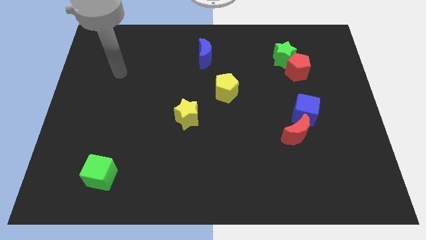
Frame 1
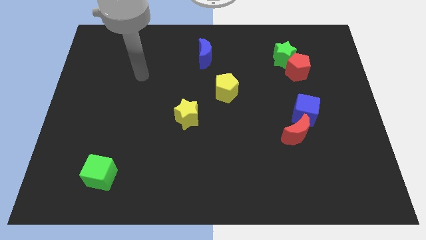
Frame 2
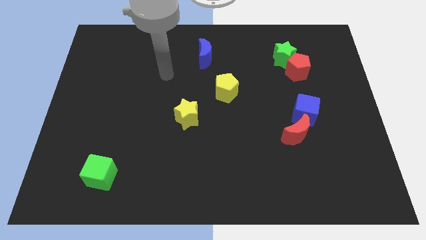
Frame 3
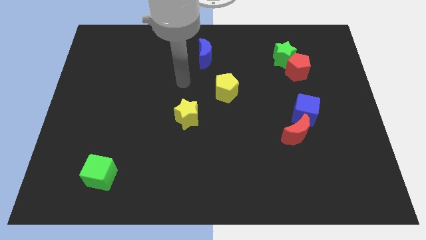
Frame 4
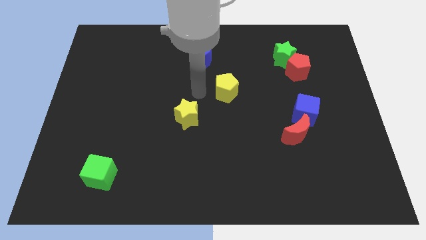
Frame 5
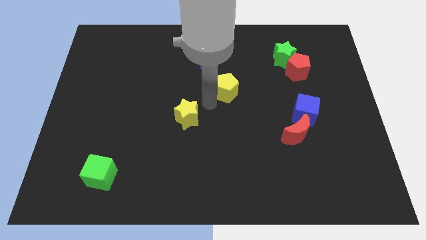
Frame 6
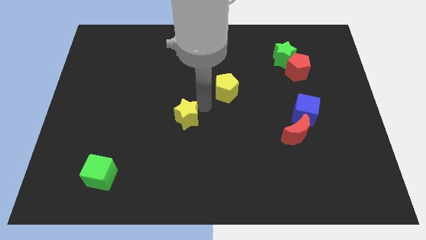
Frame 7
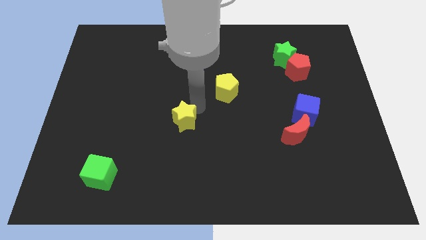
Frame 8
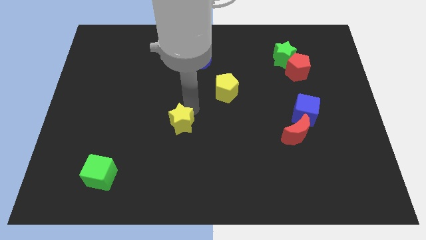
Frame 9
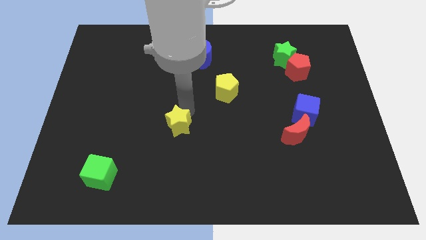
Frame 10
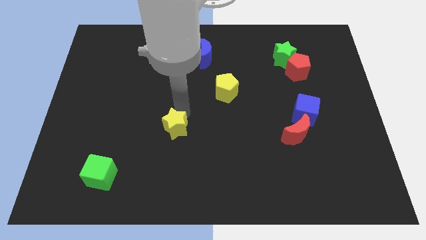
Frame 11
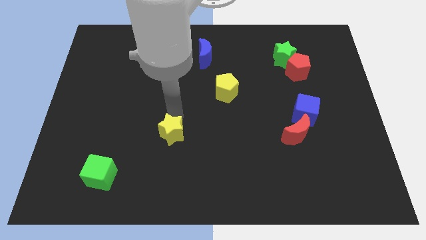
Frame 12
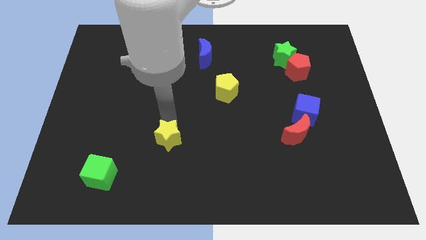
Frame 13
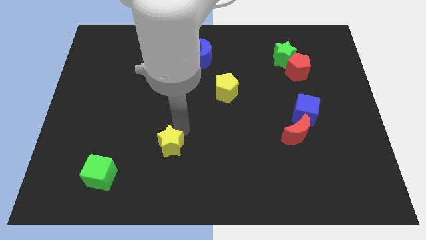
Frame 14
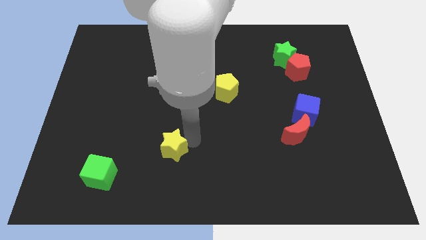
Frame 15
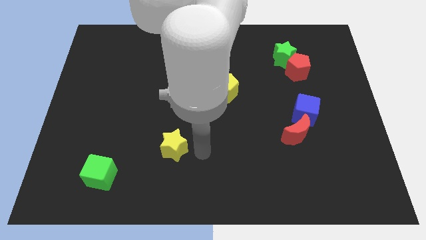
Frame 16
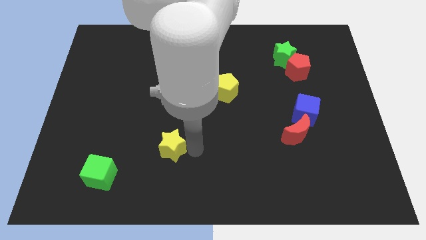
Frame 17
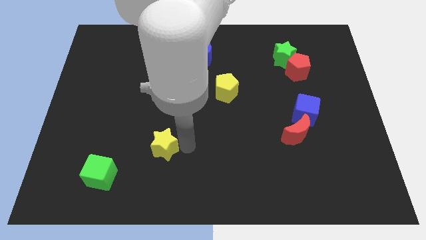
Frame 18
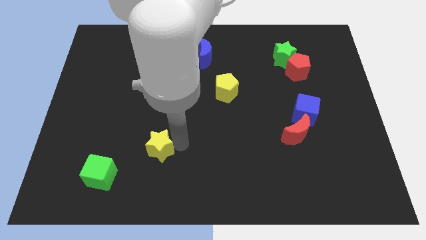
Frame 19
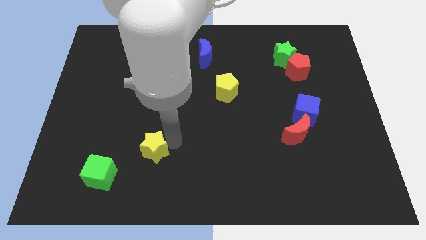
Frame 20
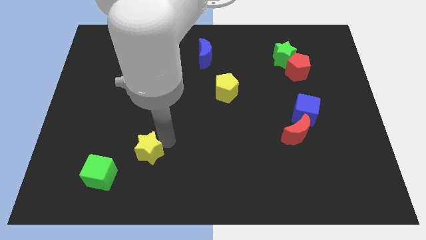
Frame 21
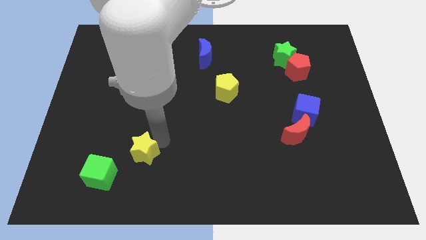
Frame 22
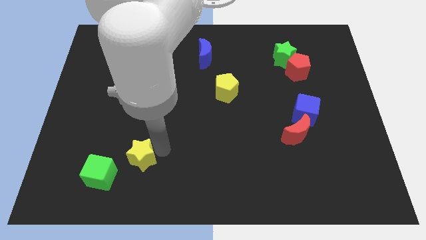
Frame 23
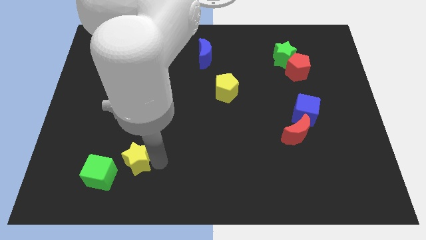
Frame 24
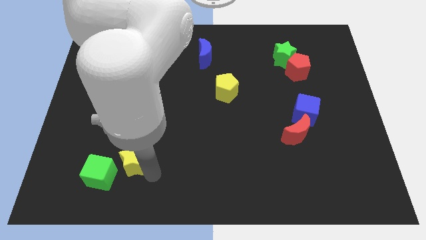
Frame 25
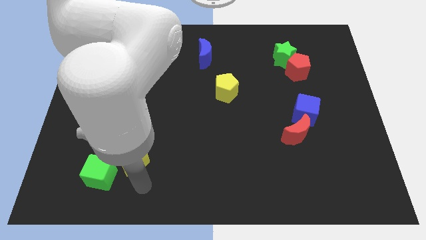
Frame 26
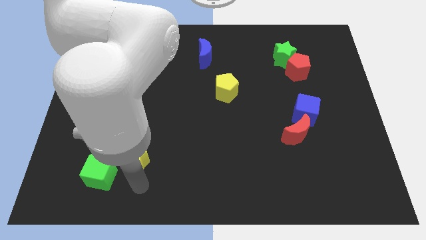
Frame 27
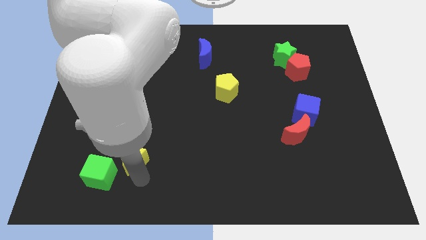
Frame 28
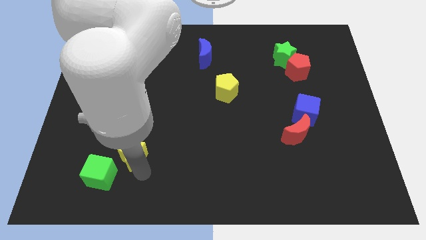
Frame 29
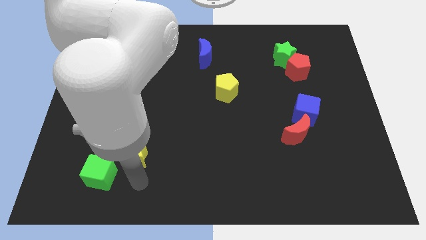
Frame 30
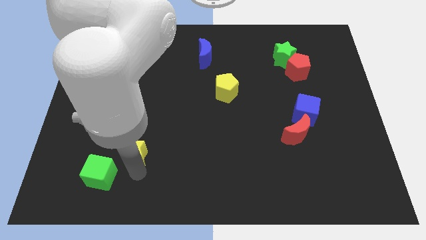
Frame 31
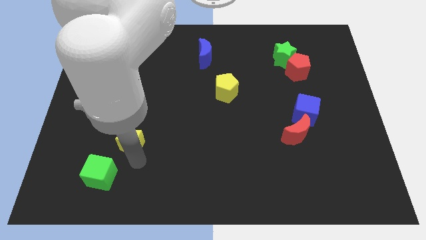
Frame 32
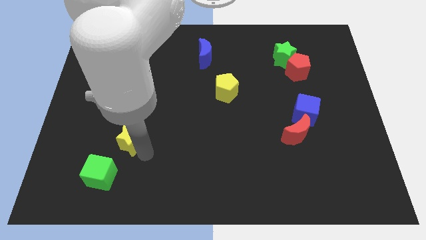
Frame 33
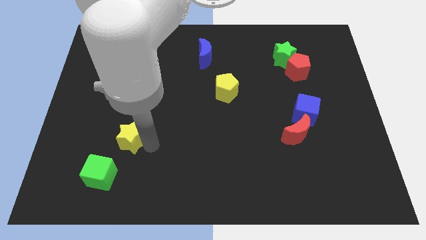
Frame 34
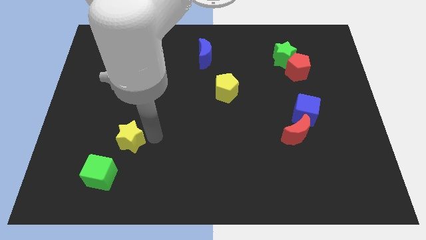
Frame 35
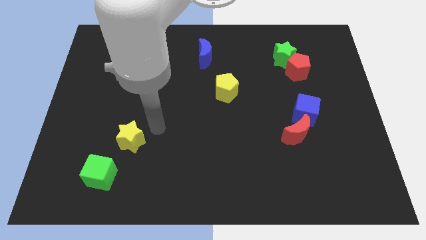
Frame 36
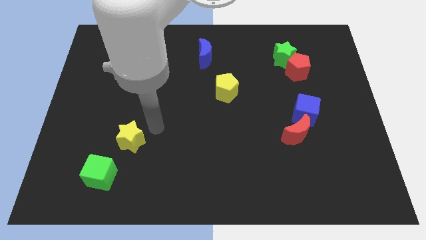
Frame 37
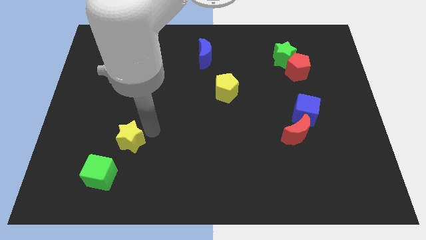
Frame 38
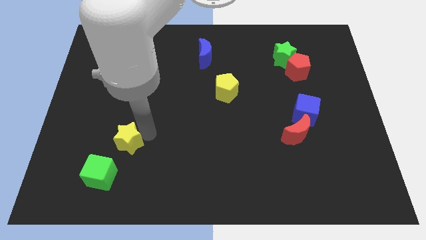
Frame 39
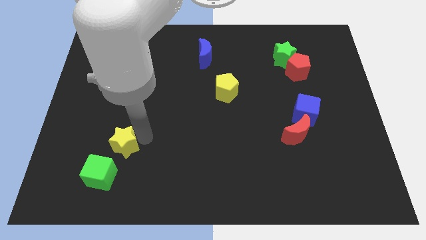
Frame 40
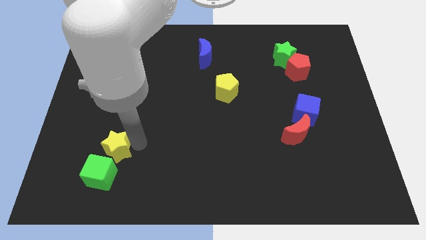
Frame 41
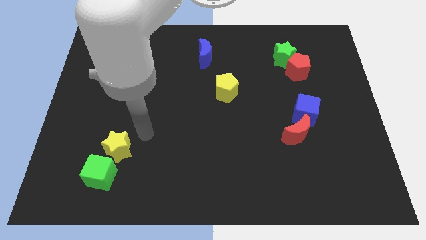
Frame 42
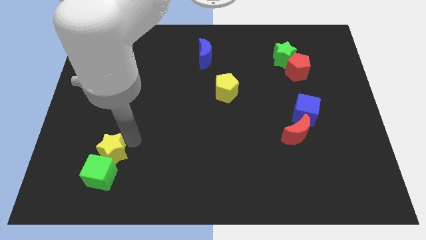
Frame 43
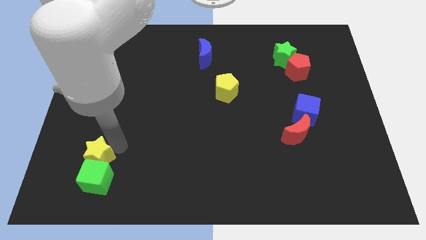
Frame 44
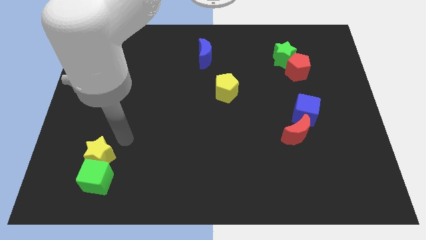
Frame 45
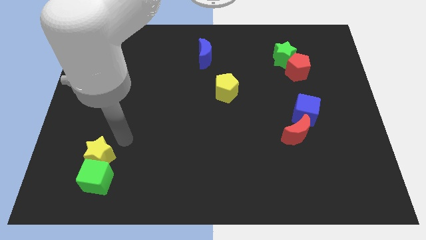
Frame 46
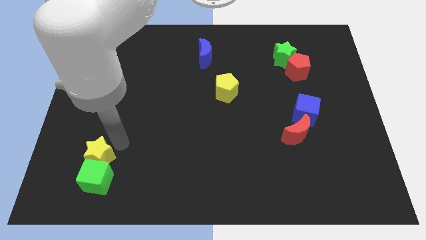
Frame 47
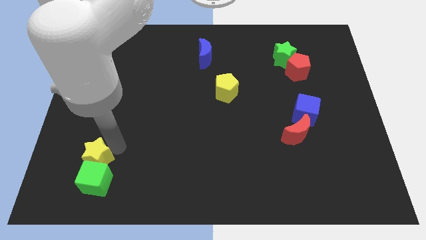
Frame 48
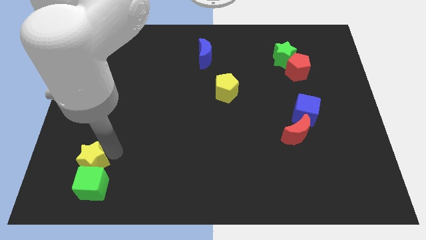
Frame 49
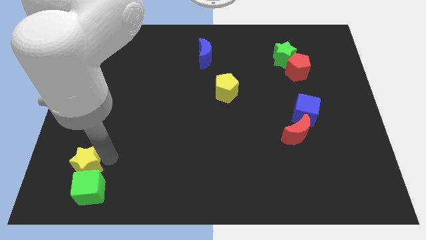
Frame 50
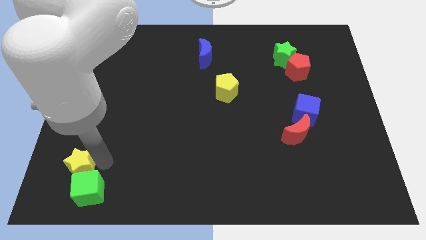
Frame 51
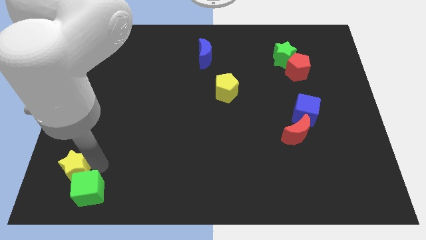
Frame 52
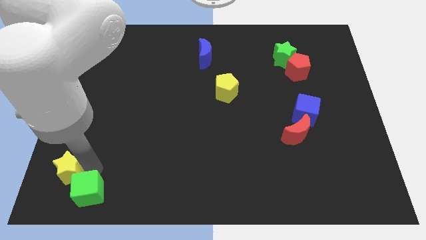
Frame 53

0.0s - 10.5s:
slide the yellow star to the bottom left of the board

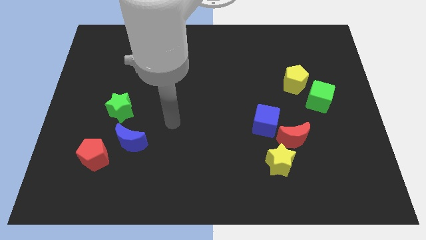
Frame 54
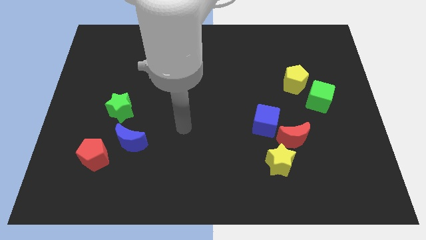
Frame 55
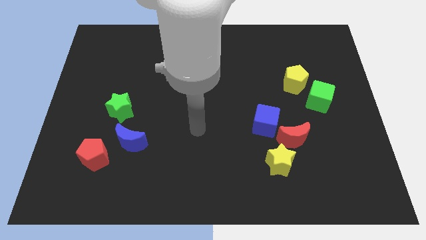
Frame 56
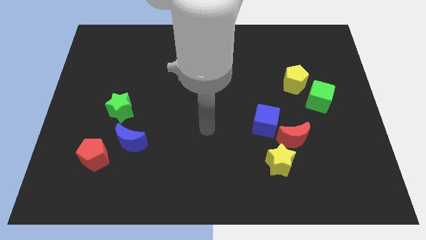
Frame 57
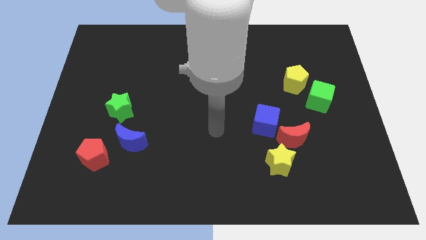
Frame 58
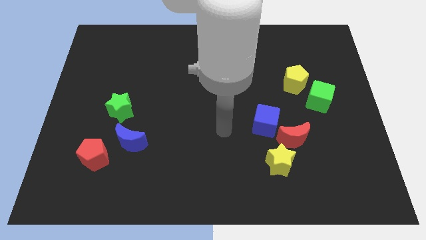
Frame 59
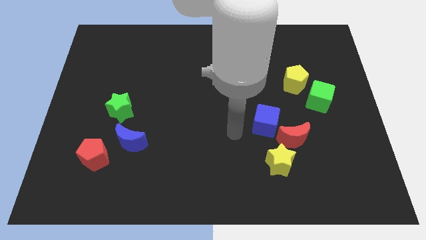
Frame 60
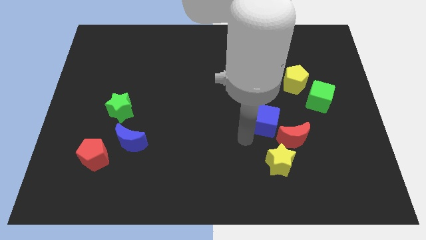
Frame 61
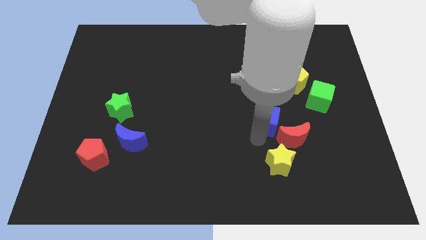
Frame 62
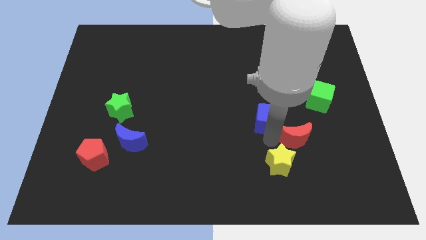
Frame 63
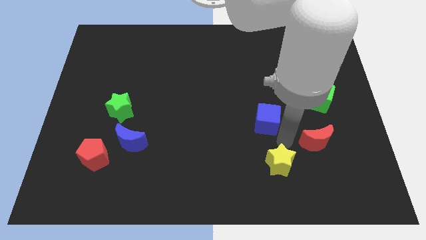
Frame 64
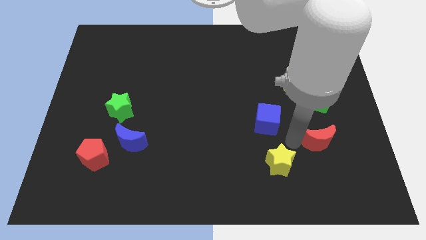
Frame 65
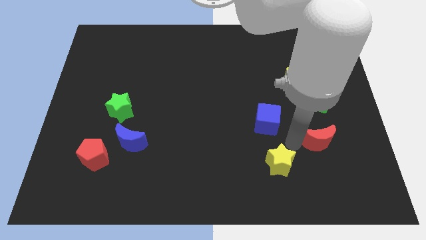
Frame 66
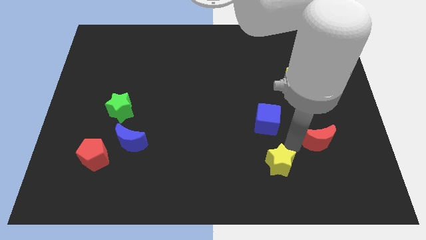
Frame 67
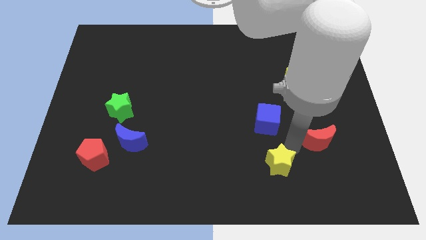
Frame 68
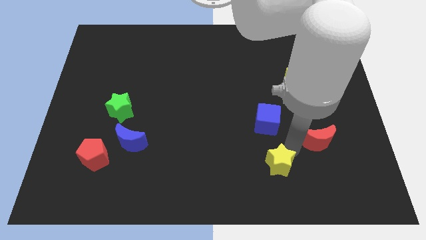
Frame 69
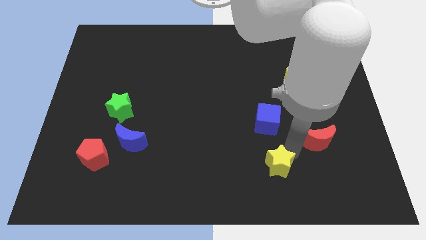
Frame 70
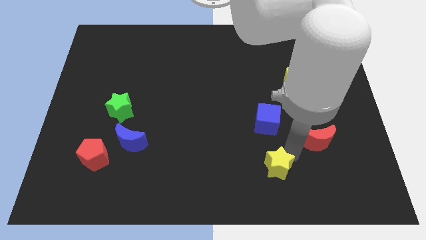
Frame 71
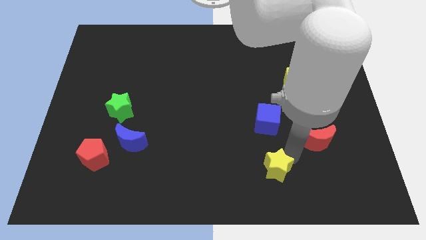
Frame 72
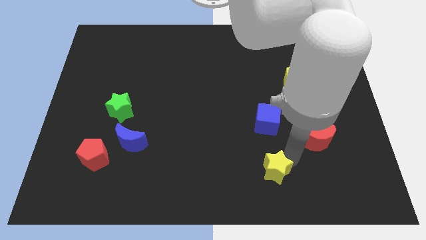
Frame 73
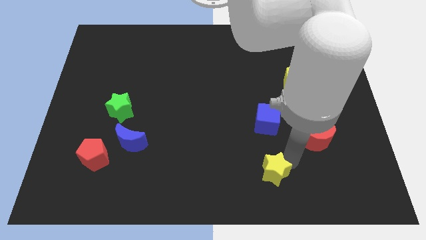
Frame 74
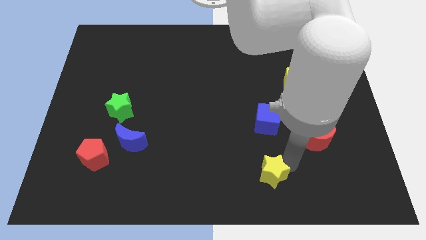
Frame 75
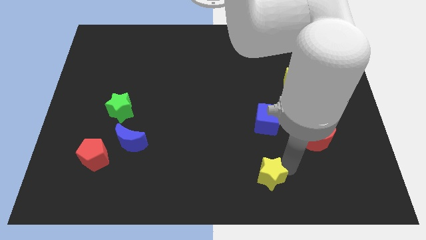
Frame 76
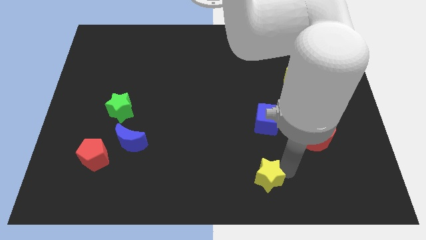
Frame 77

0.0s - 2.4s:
push the yellow star to the bottom side
